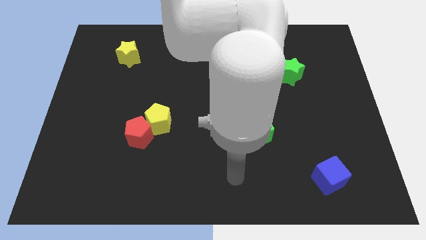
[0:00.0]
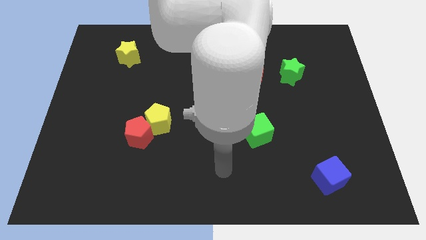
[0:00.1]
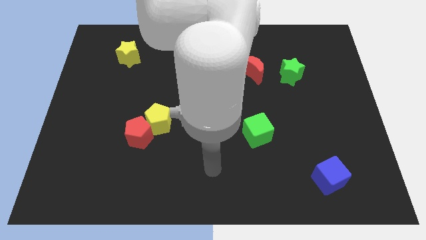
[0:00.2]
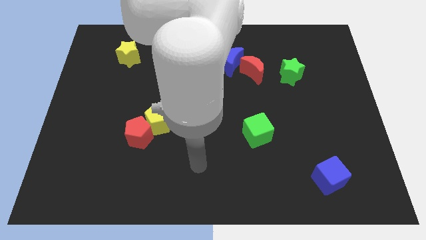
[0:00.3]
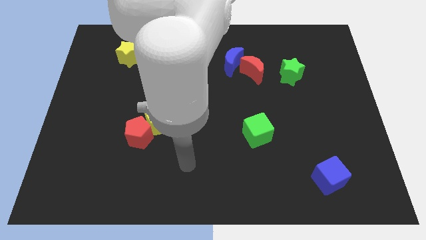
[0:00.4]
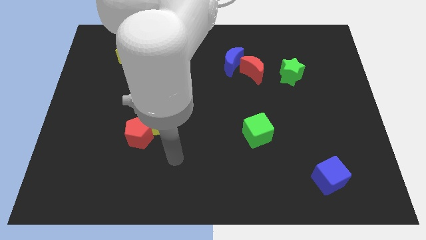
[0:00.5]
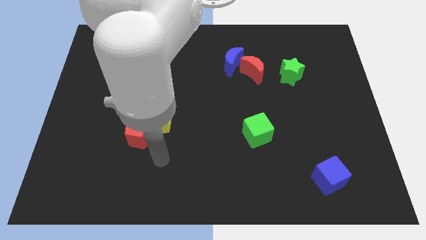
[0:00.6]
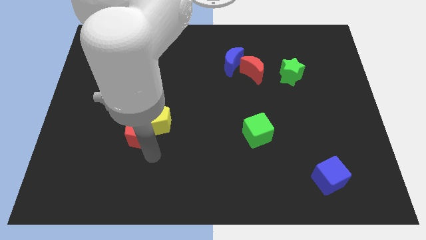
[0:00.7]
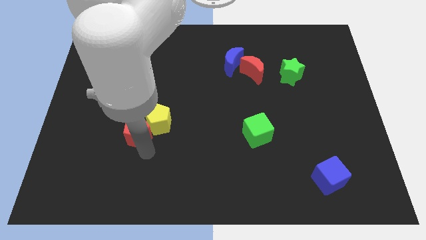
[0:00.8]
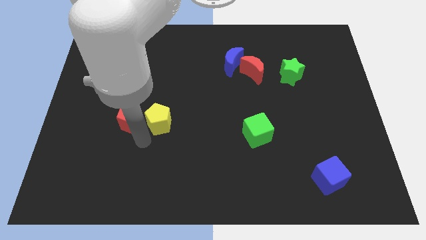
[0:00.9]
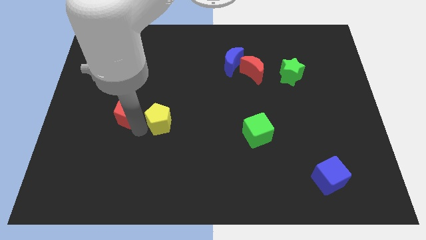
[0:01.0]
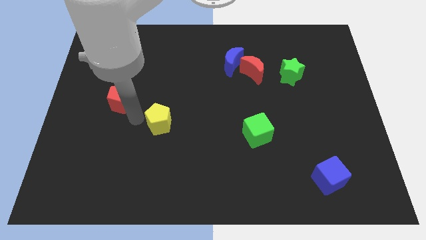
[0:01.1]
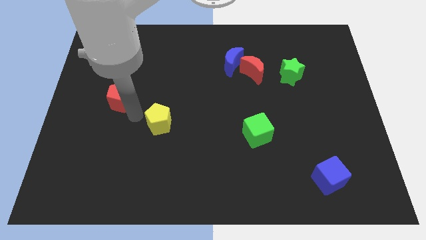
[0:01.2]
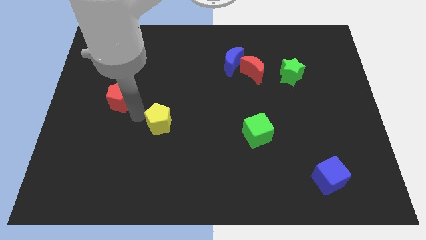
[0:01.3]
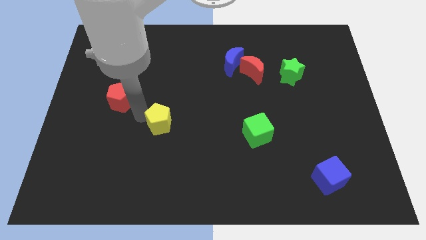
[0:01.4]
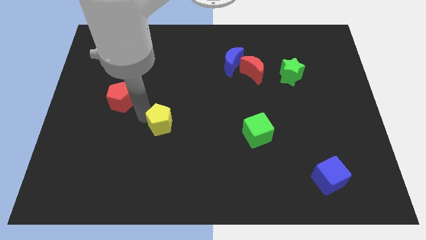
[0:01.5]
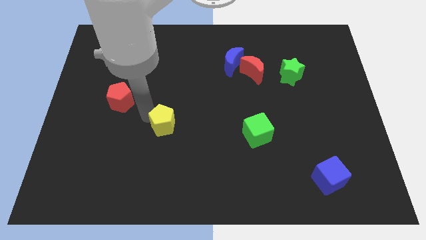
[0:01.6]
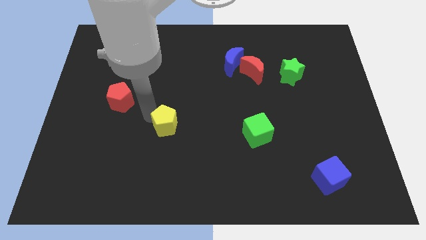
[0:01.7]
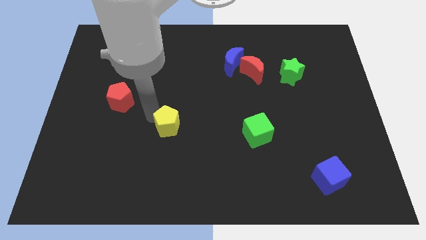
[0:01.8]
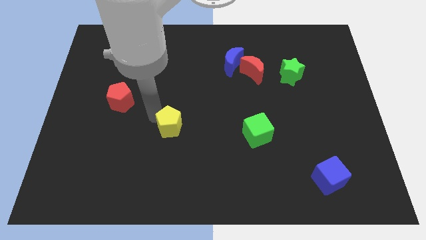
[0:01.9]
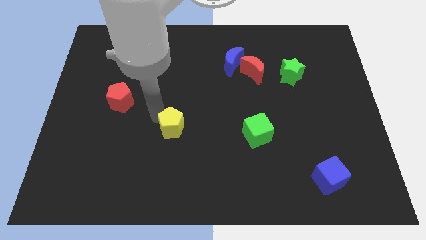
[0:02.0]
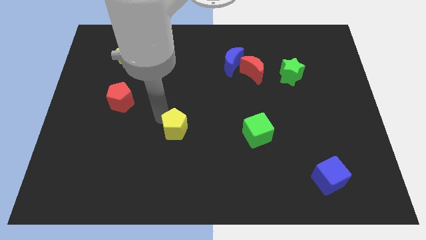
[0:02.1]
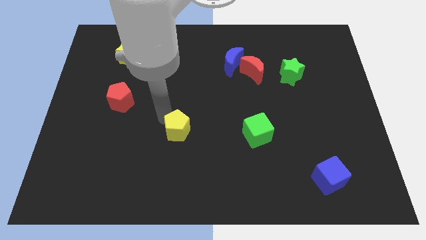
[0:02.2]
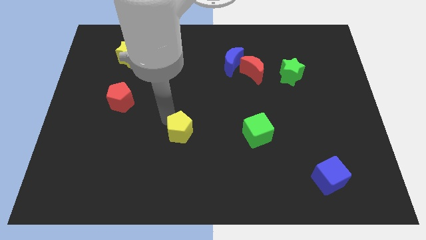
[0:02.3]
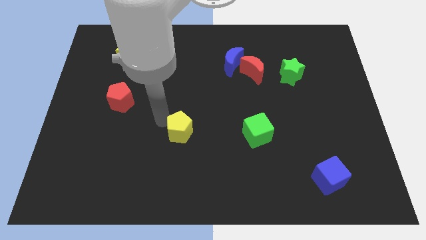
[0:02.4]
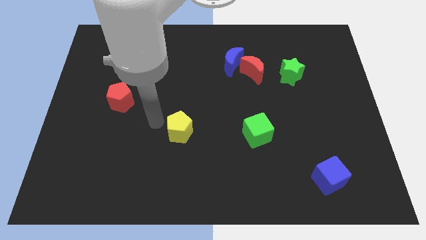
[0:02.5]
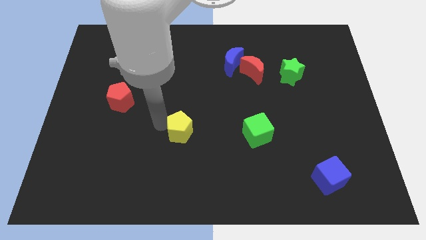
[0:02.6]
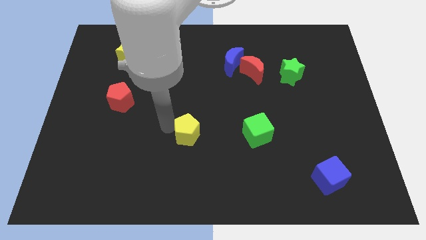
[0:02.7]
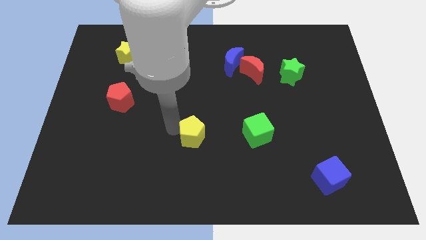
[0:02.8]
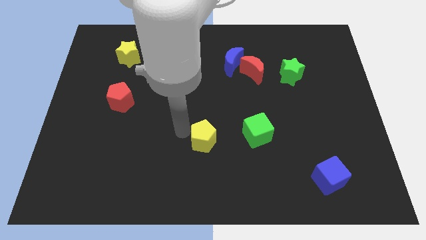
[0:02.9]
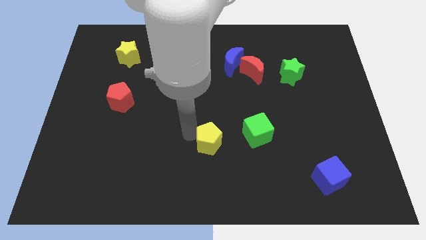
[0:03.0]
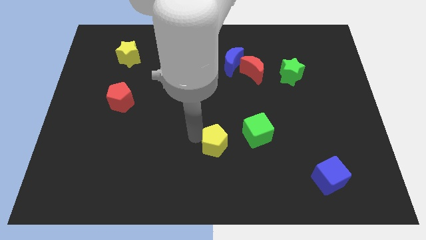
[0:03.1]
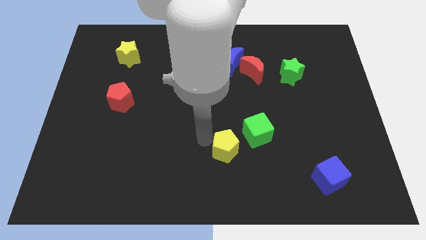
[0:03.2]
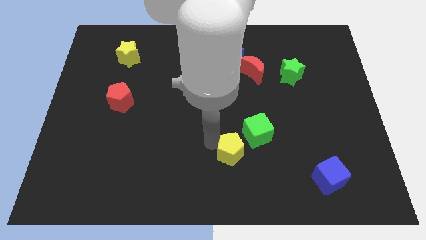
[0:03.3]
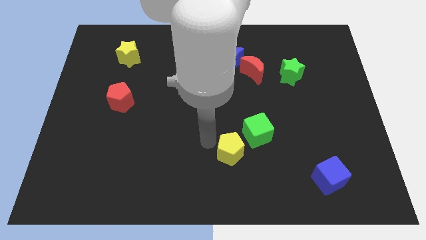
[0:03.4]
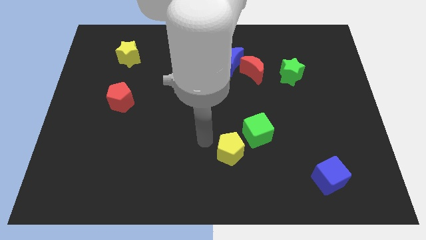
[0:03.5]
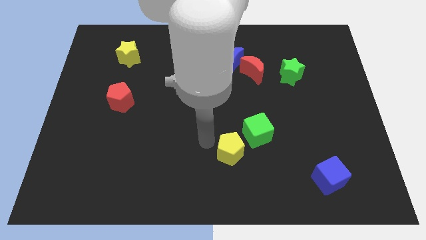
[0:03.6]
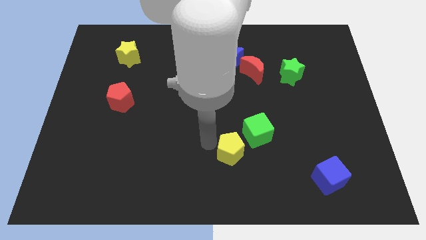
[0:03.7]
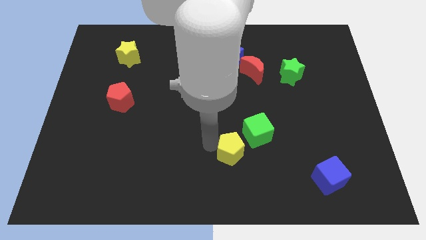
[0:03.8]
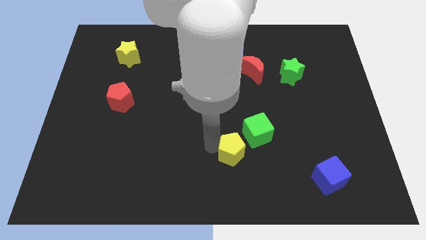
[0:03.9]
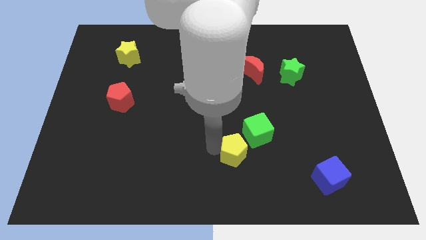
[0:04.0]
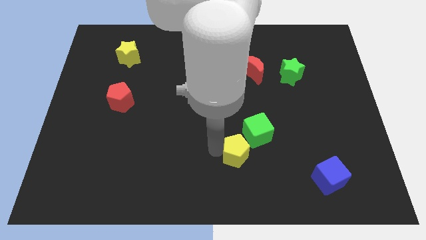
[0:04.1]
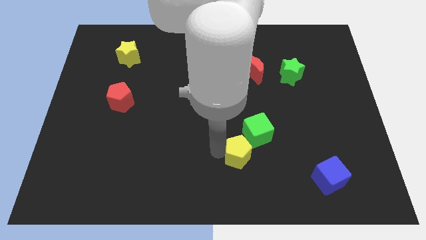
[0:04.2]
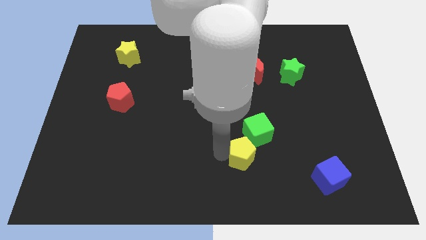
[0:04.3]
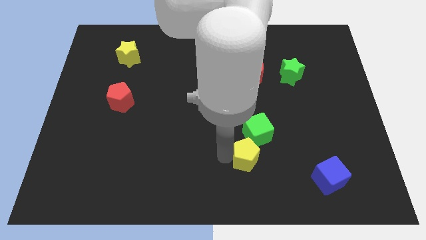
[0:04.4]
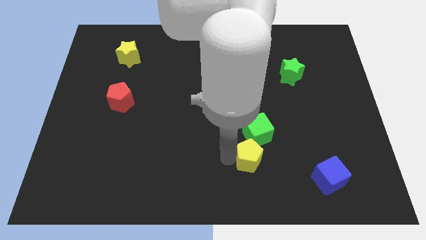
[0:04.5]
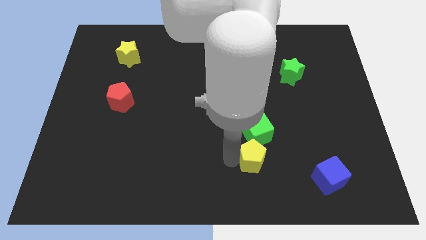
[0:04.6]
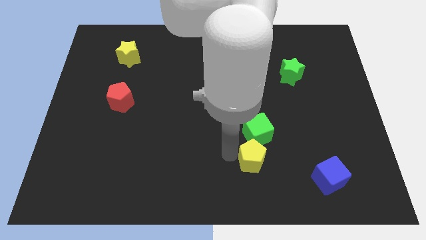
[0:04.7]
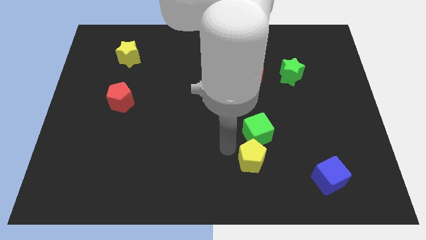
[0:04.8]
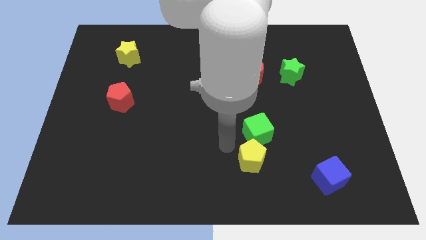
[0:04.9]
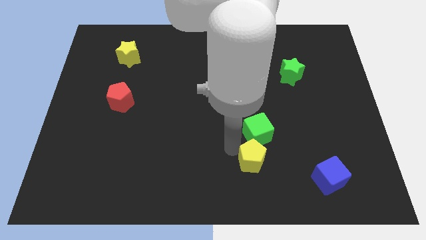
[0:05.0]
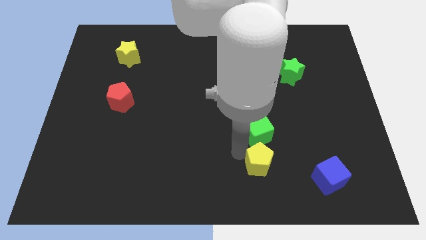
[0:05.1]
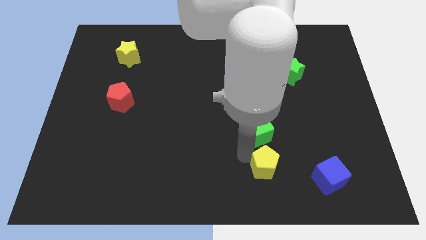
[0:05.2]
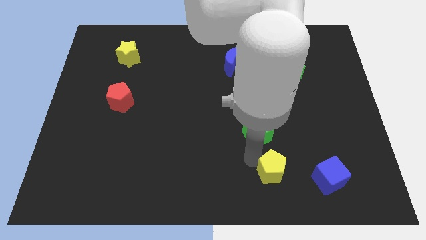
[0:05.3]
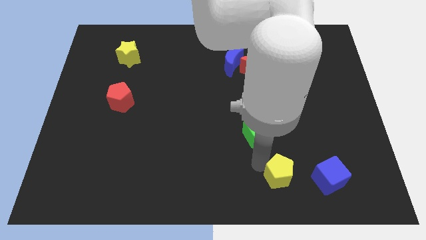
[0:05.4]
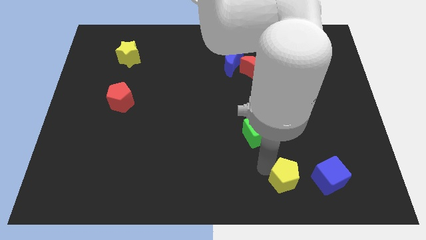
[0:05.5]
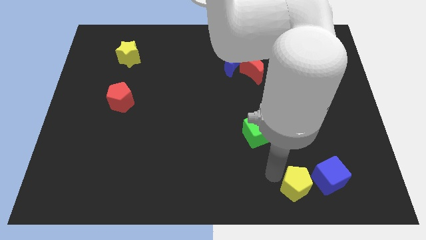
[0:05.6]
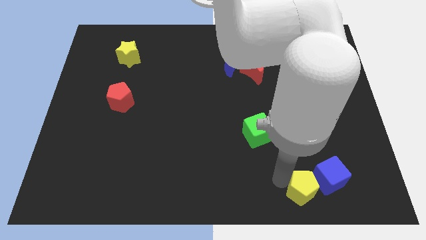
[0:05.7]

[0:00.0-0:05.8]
slide the yellow pentagon next to the blue cube

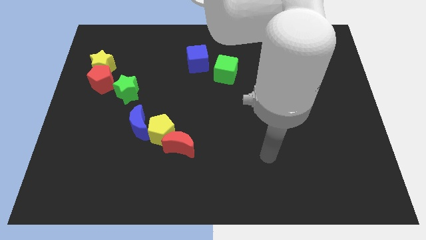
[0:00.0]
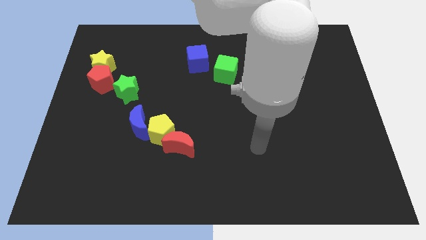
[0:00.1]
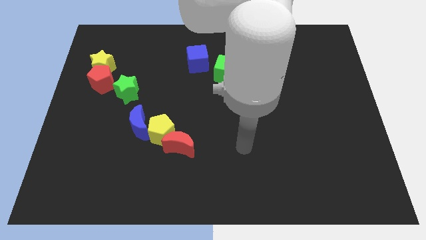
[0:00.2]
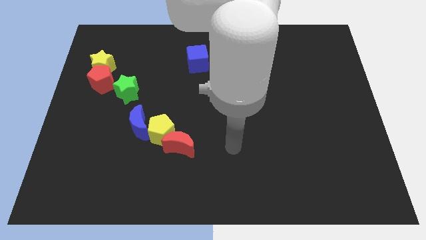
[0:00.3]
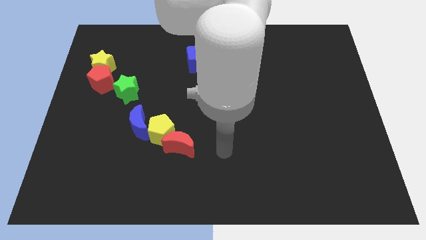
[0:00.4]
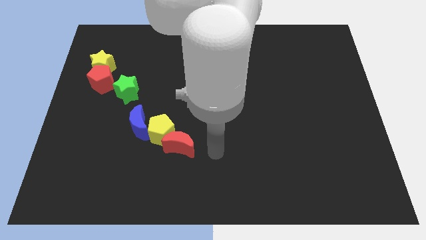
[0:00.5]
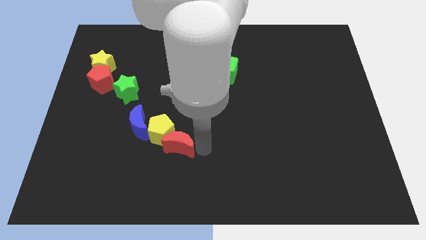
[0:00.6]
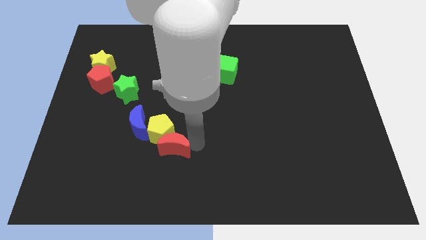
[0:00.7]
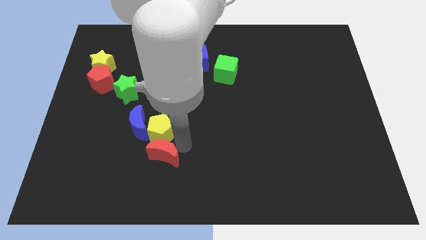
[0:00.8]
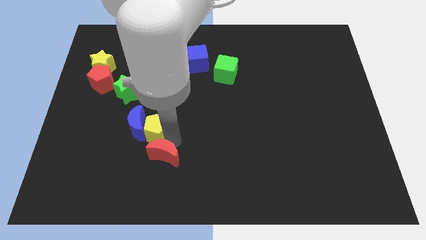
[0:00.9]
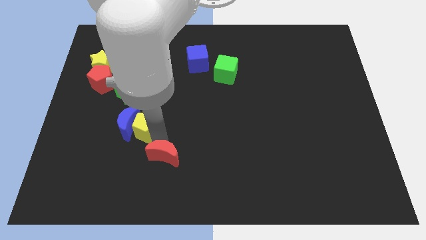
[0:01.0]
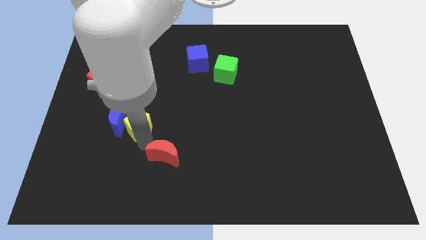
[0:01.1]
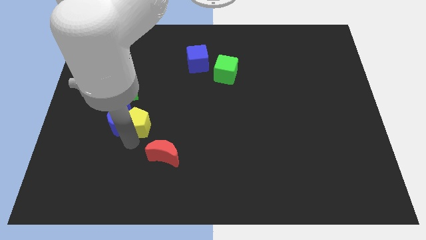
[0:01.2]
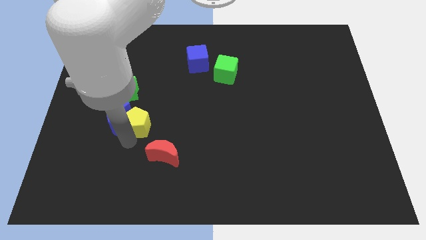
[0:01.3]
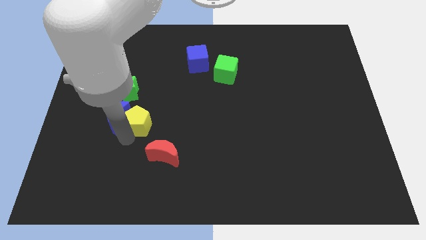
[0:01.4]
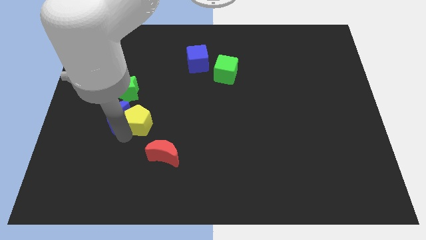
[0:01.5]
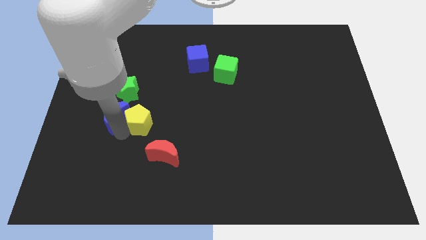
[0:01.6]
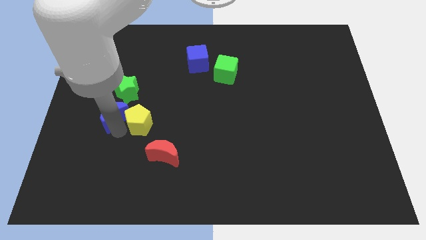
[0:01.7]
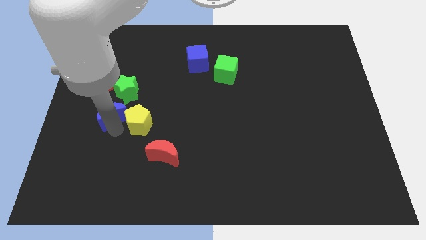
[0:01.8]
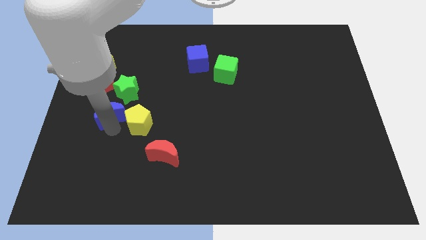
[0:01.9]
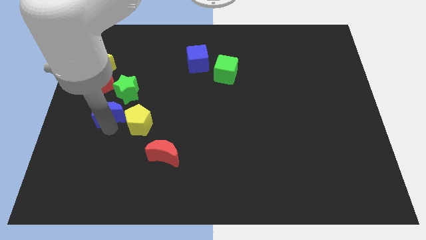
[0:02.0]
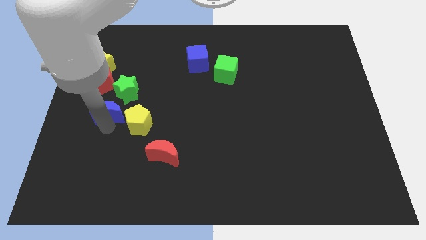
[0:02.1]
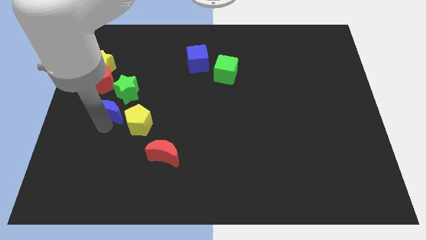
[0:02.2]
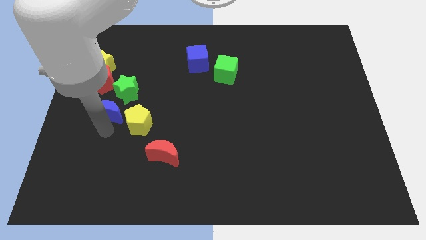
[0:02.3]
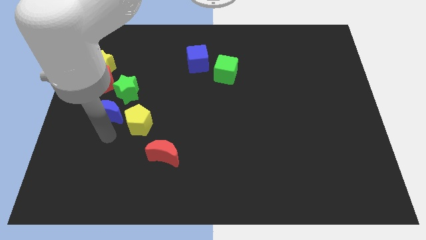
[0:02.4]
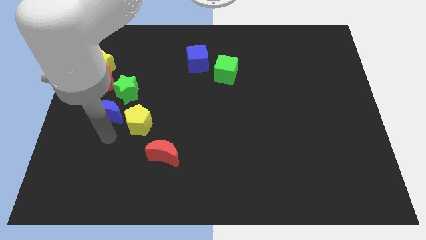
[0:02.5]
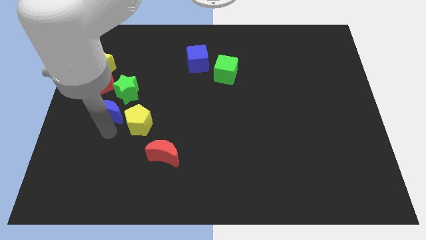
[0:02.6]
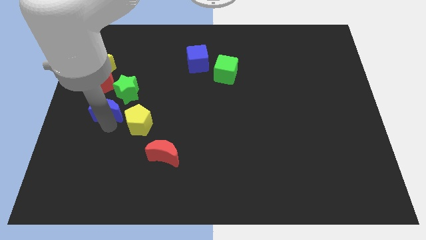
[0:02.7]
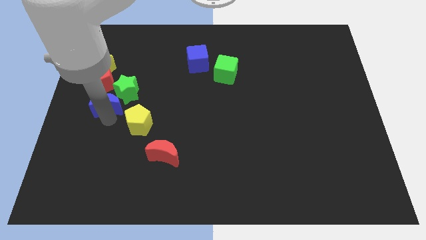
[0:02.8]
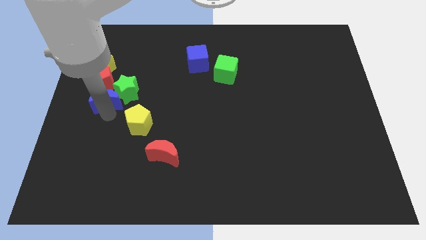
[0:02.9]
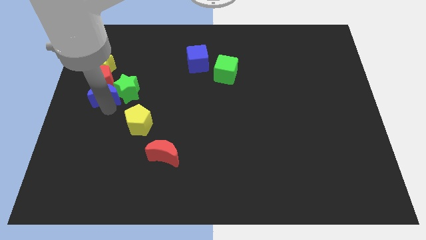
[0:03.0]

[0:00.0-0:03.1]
move the blue moon to the red pentagon
